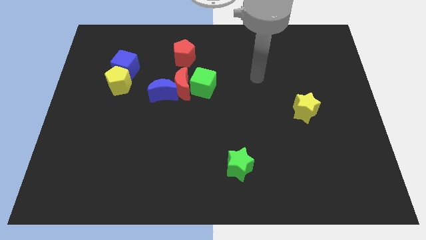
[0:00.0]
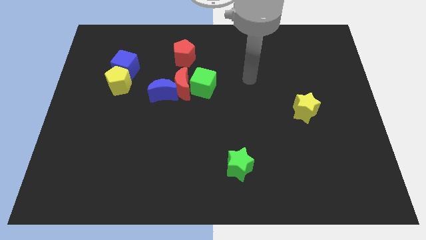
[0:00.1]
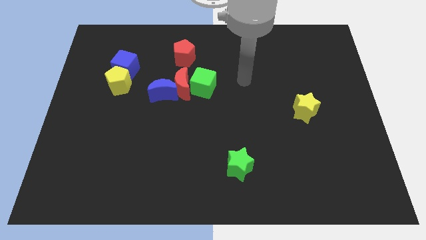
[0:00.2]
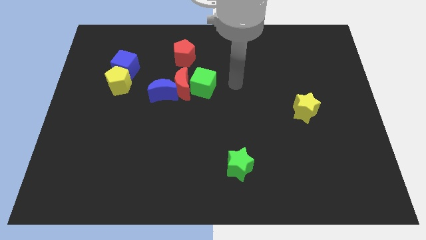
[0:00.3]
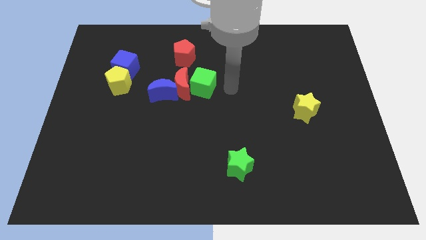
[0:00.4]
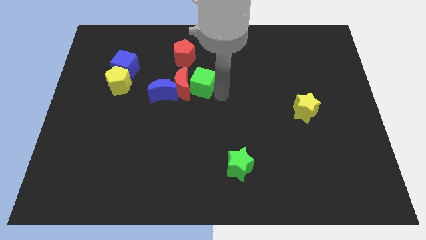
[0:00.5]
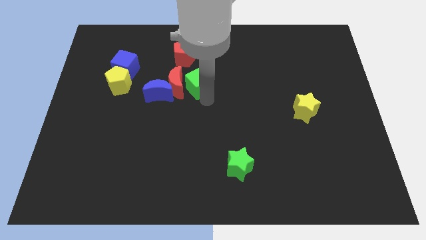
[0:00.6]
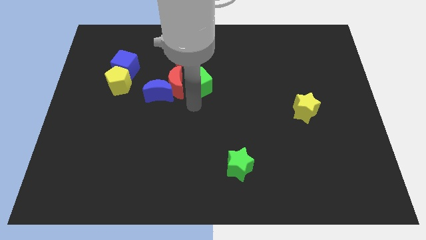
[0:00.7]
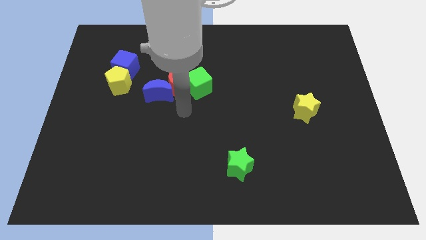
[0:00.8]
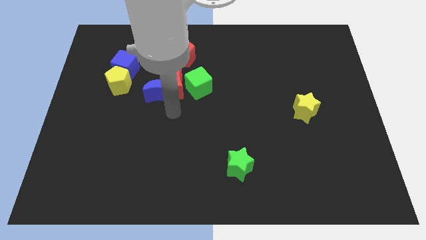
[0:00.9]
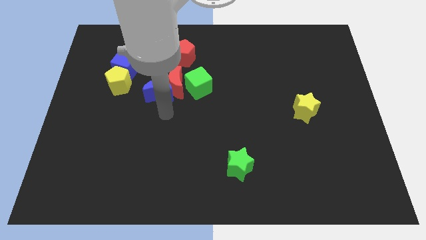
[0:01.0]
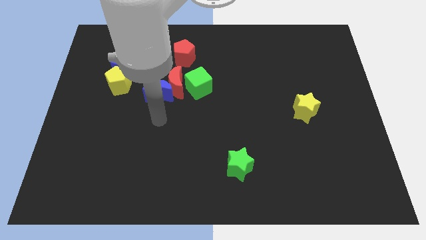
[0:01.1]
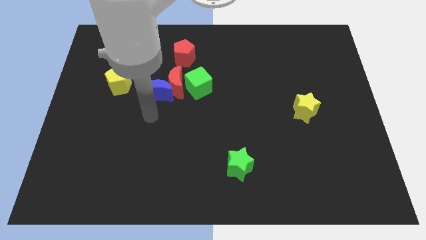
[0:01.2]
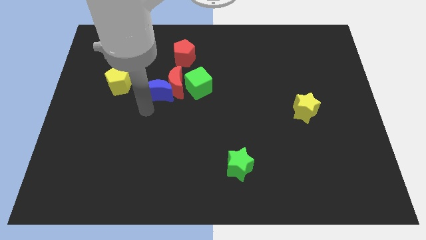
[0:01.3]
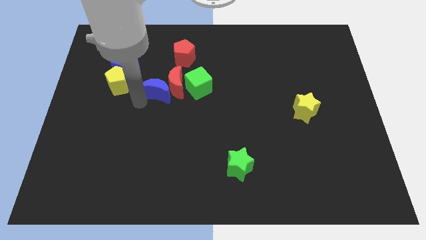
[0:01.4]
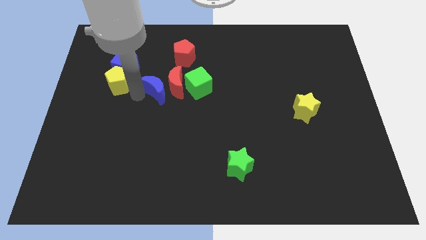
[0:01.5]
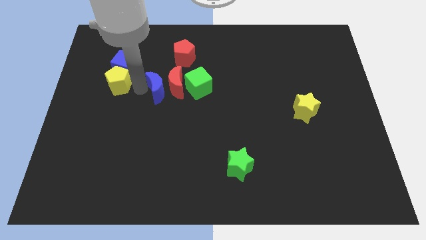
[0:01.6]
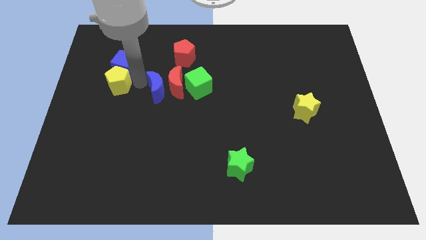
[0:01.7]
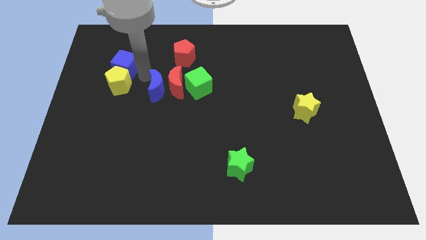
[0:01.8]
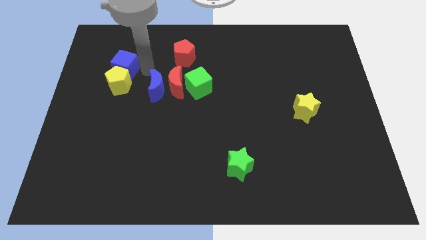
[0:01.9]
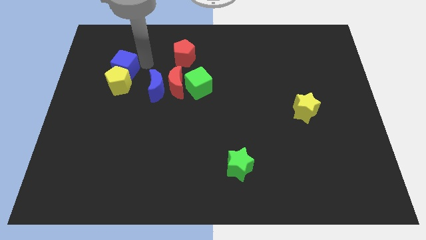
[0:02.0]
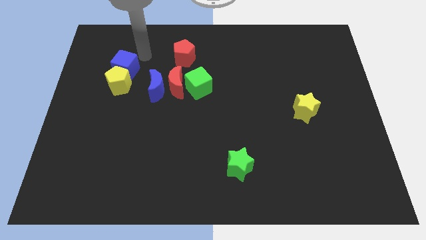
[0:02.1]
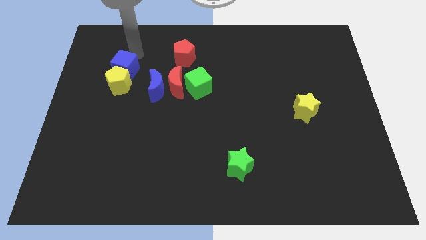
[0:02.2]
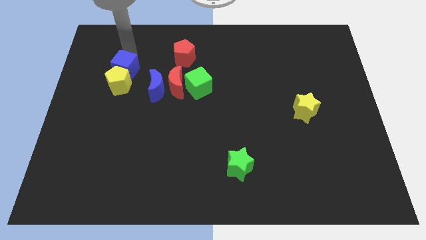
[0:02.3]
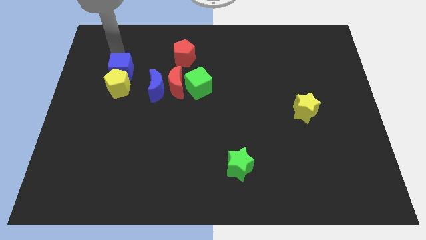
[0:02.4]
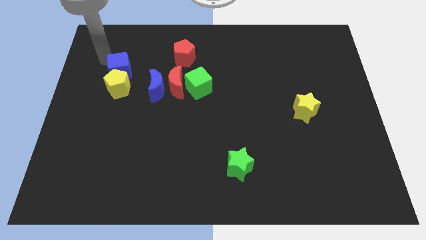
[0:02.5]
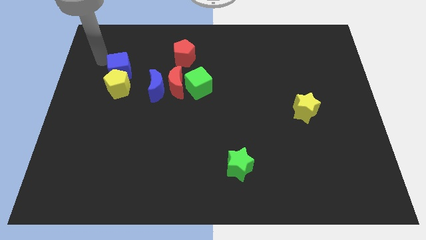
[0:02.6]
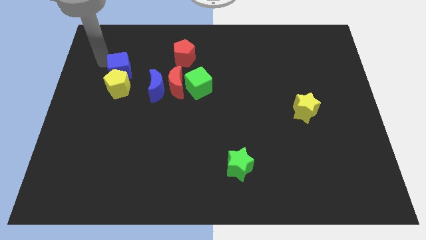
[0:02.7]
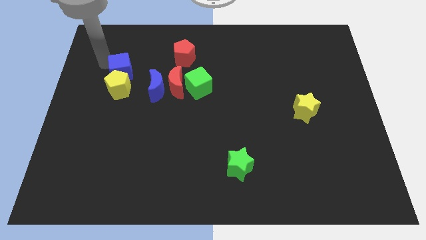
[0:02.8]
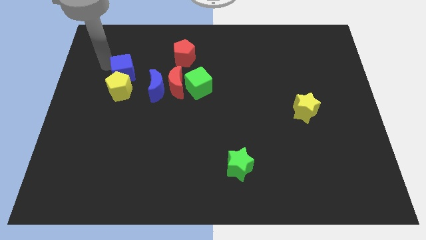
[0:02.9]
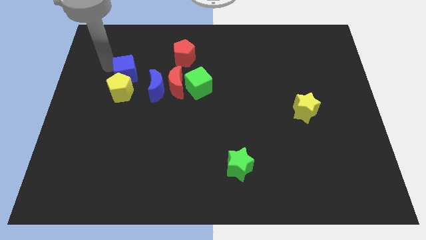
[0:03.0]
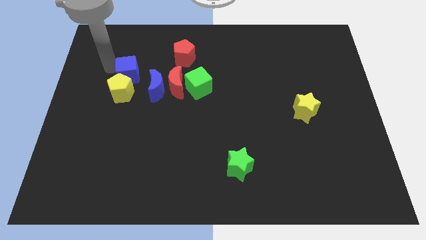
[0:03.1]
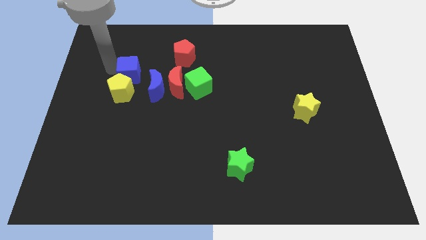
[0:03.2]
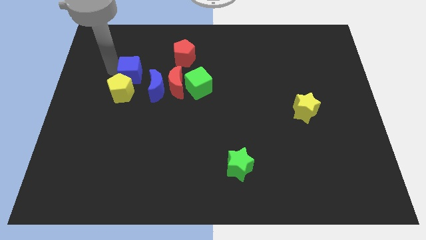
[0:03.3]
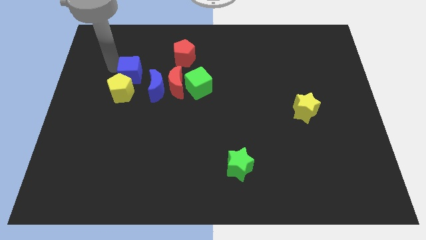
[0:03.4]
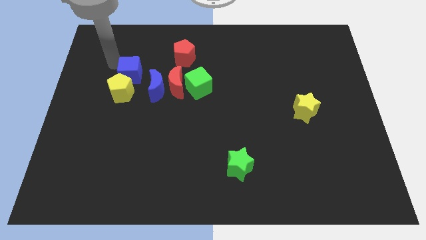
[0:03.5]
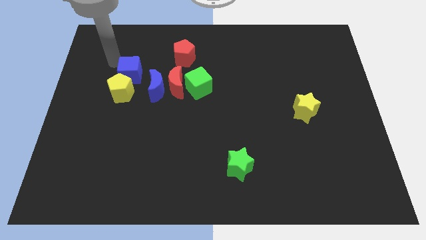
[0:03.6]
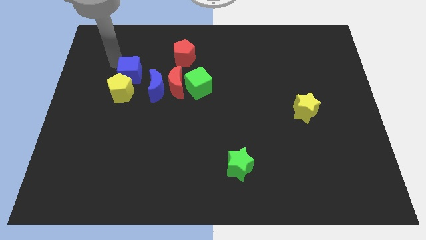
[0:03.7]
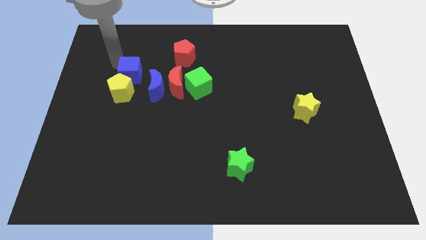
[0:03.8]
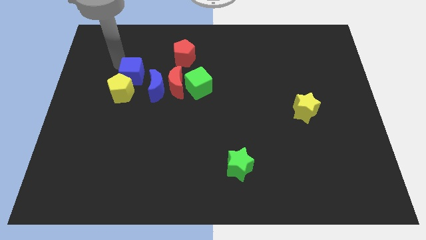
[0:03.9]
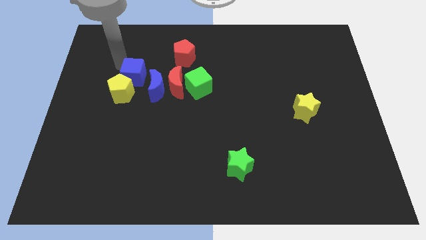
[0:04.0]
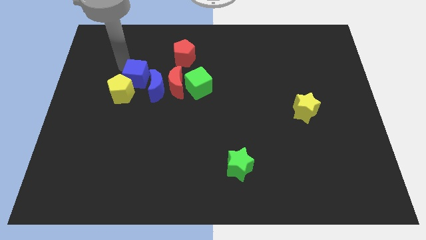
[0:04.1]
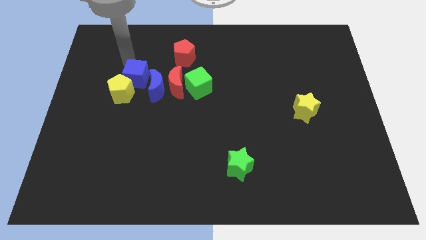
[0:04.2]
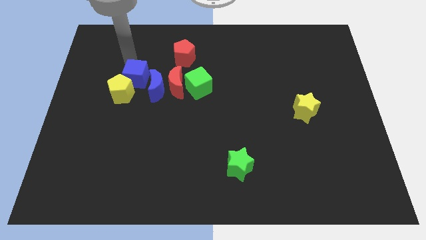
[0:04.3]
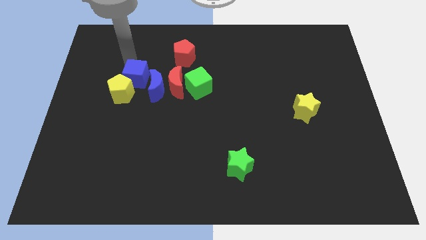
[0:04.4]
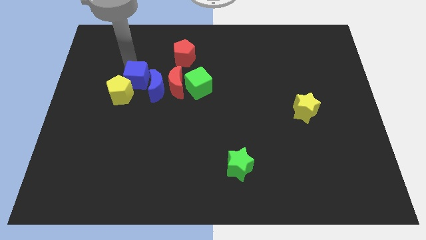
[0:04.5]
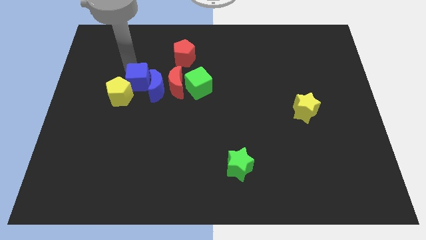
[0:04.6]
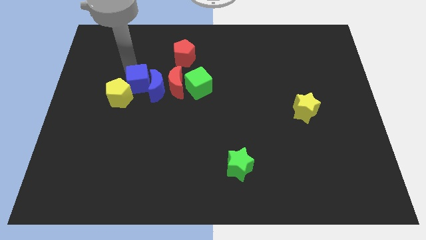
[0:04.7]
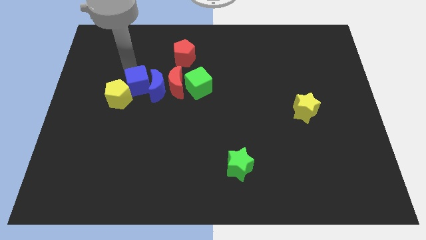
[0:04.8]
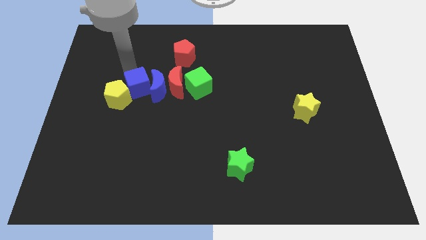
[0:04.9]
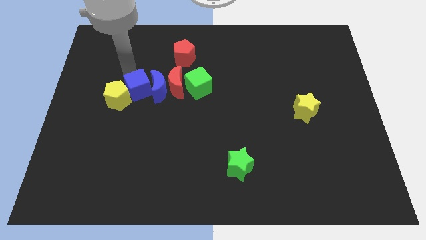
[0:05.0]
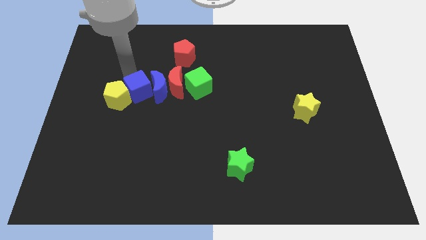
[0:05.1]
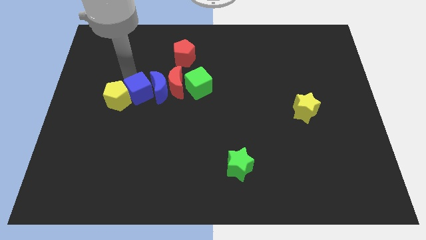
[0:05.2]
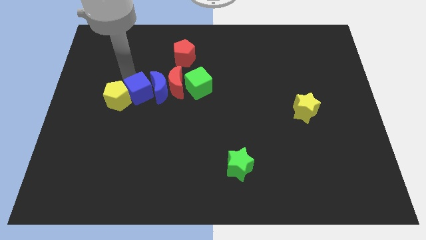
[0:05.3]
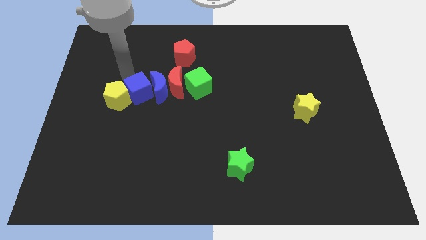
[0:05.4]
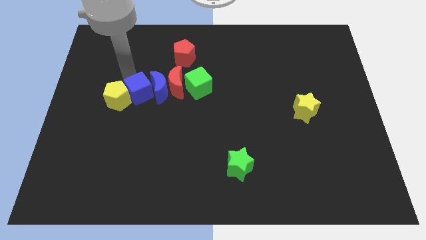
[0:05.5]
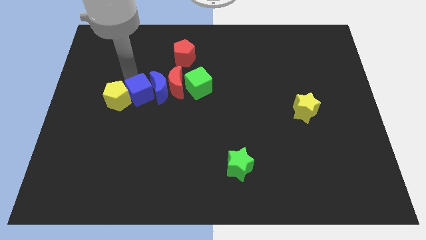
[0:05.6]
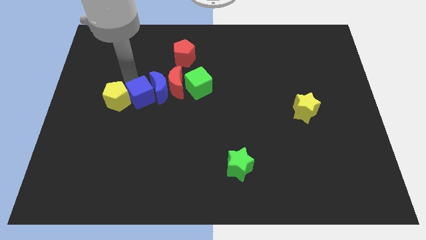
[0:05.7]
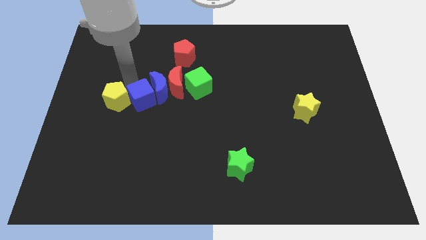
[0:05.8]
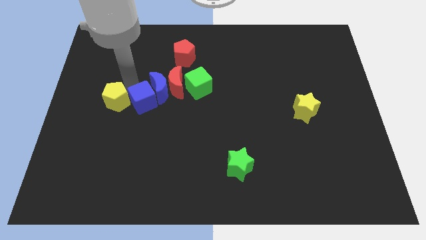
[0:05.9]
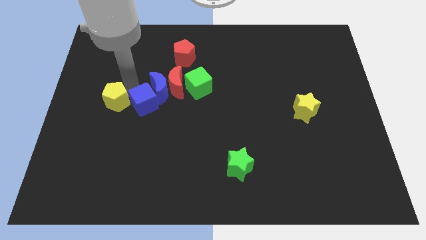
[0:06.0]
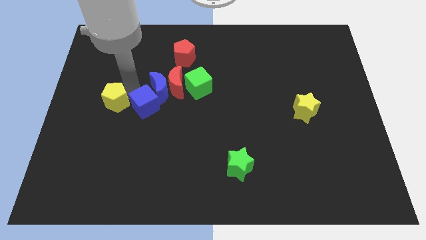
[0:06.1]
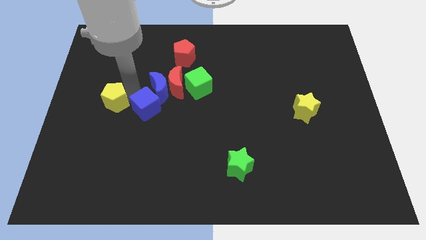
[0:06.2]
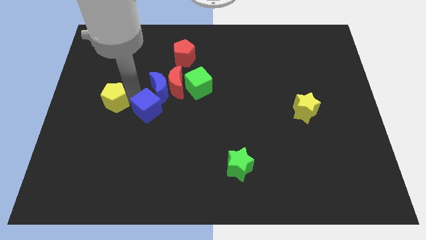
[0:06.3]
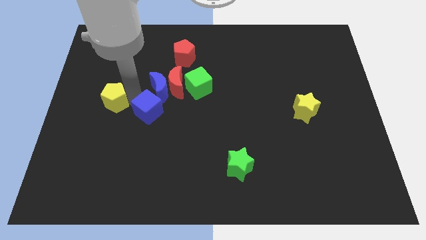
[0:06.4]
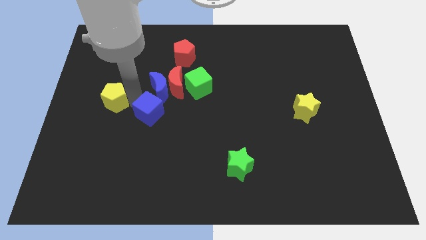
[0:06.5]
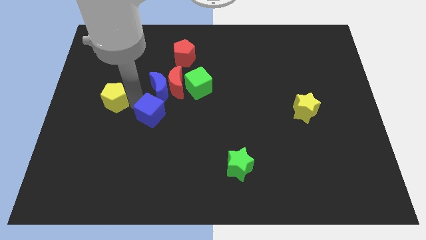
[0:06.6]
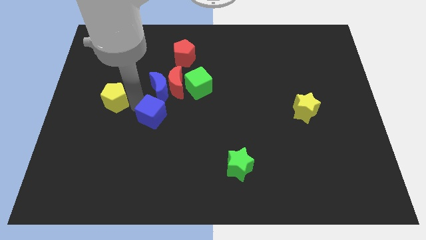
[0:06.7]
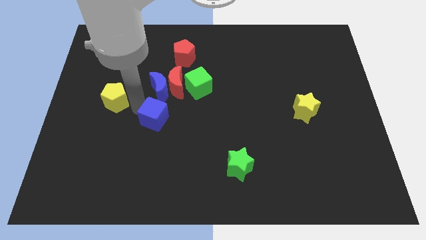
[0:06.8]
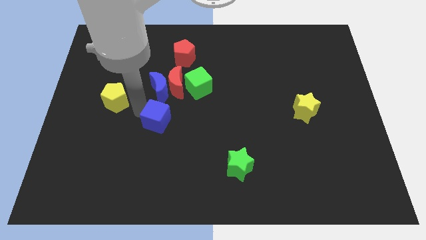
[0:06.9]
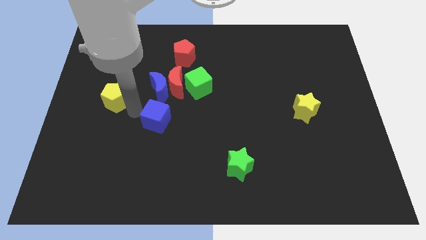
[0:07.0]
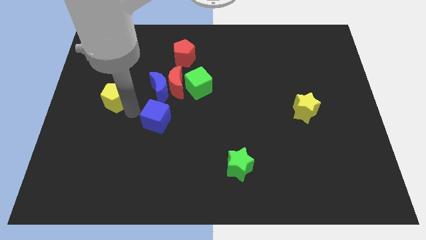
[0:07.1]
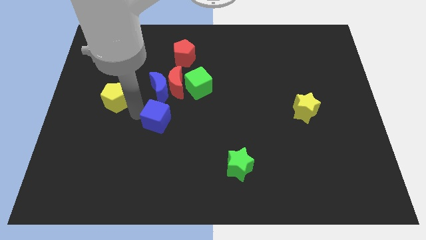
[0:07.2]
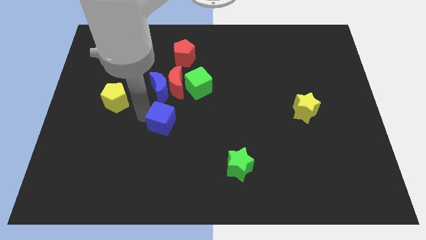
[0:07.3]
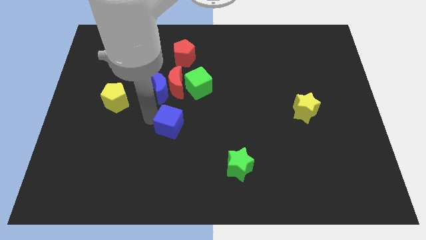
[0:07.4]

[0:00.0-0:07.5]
push the blue cube diagonally down and right

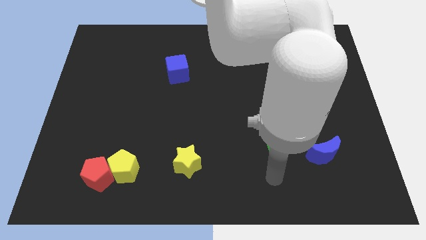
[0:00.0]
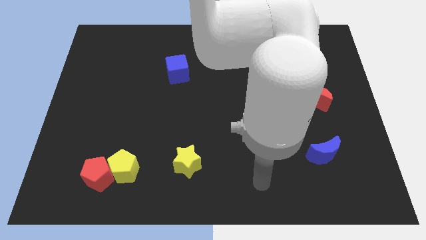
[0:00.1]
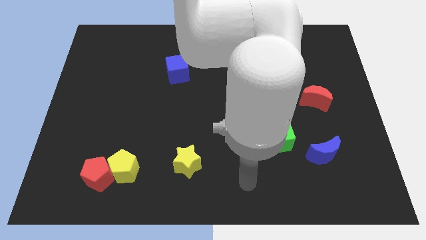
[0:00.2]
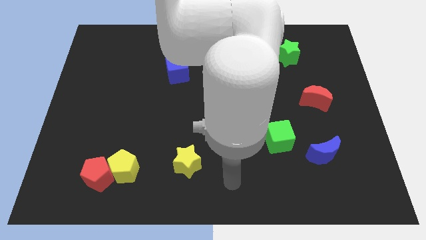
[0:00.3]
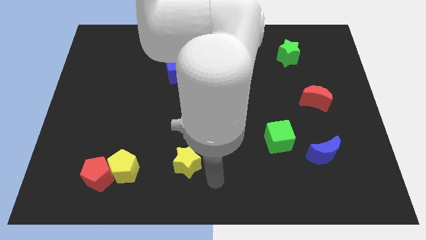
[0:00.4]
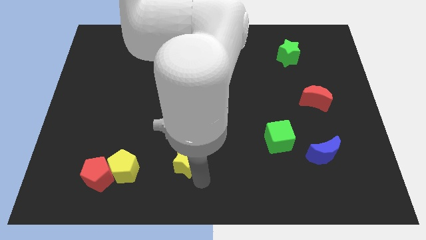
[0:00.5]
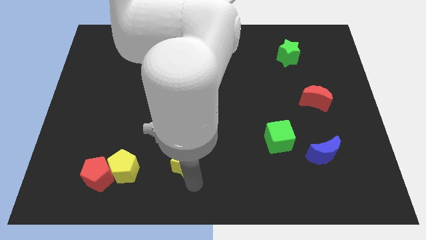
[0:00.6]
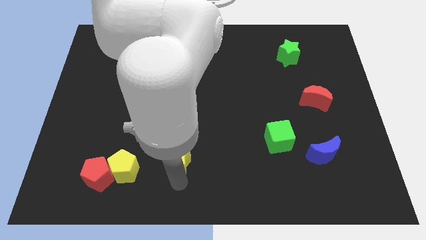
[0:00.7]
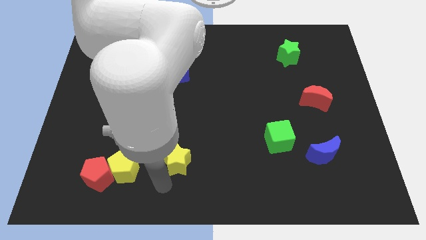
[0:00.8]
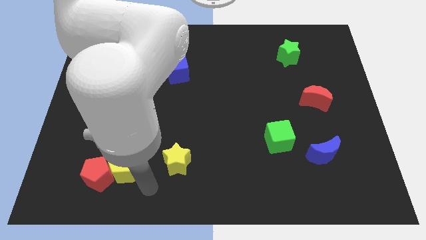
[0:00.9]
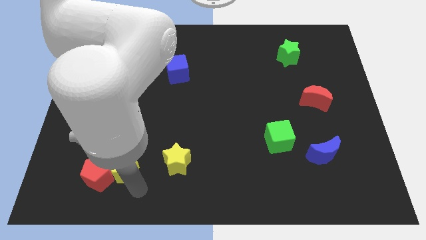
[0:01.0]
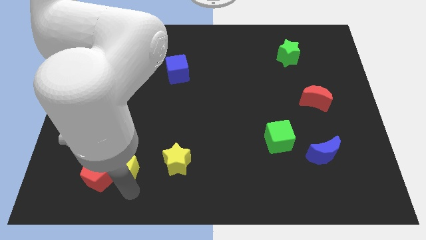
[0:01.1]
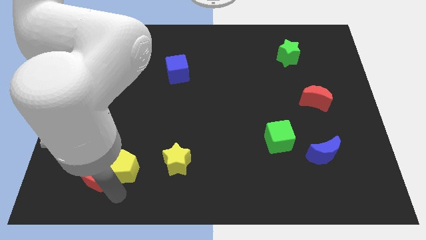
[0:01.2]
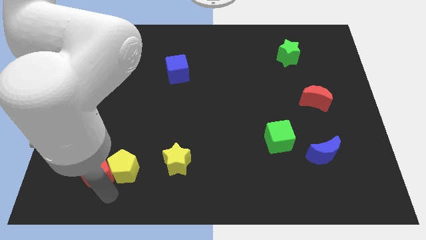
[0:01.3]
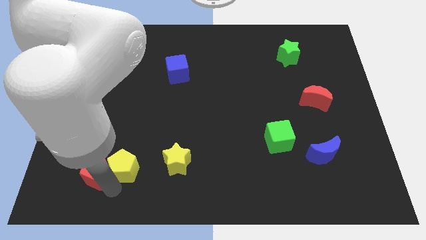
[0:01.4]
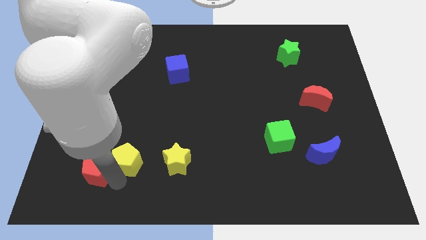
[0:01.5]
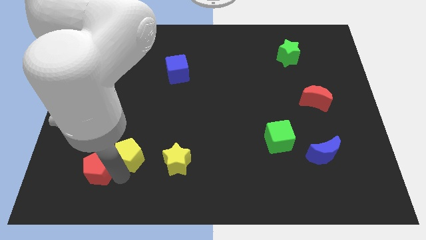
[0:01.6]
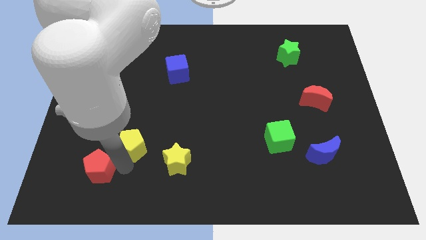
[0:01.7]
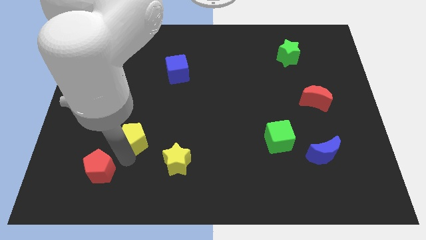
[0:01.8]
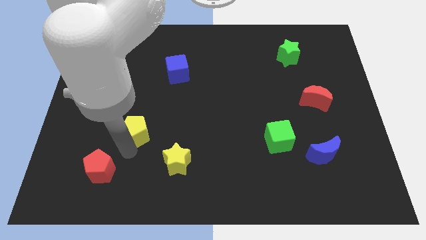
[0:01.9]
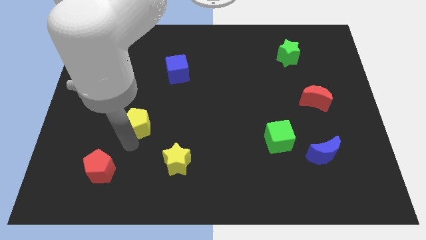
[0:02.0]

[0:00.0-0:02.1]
move the yellow pentagon somewhat up and right diagonally
